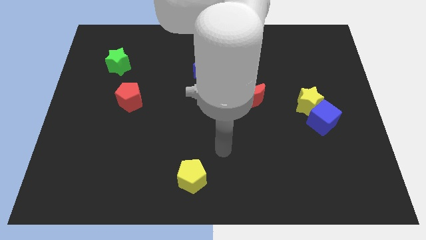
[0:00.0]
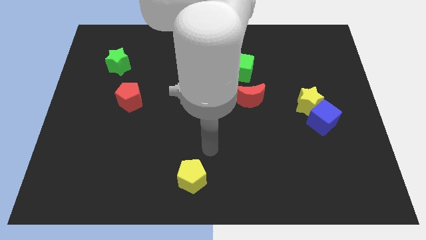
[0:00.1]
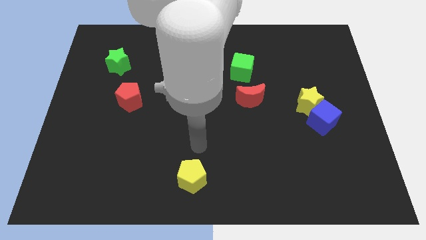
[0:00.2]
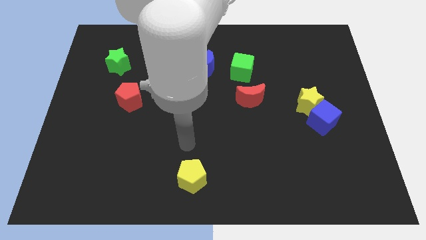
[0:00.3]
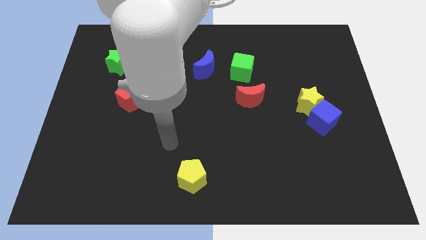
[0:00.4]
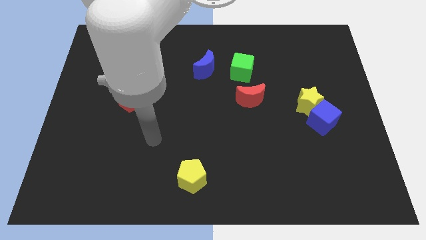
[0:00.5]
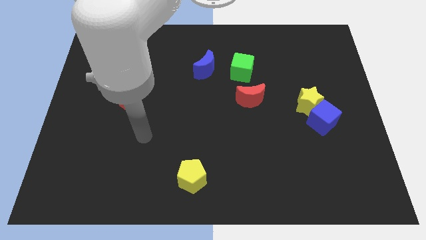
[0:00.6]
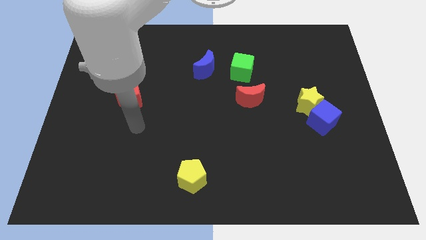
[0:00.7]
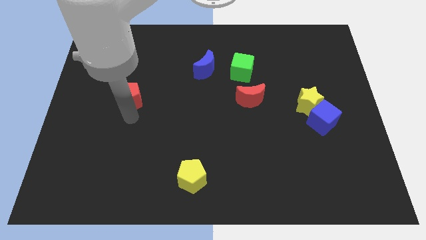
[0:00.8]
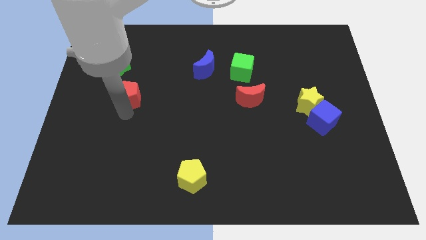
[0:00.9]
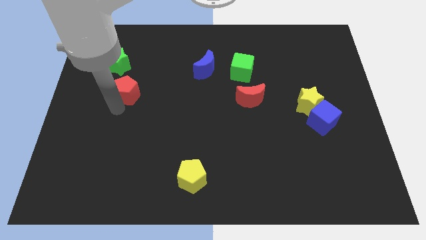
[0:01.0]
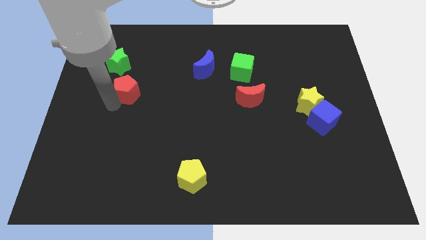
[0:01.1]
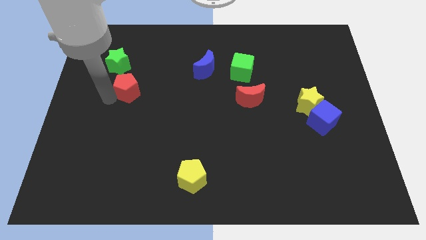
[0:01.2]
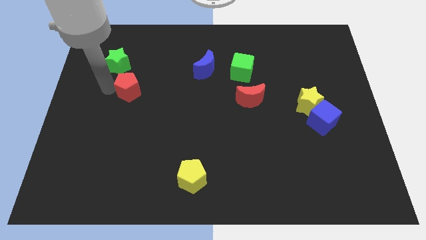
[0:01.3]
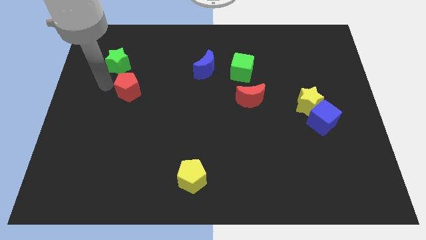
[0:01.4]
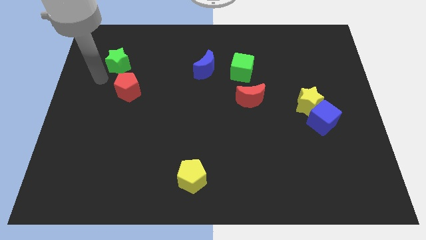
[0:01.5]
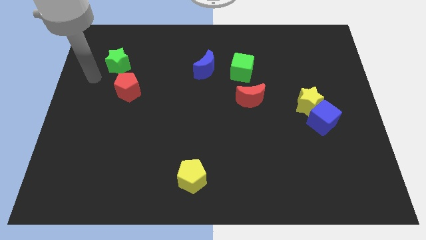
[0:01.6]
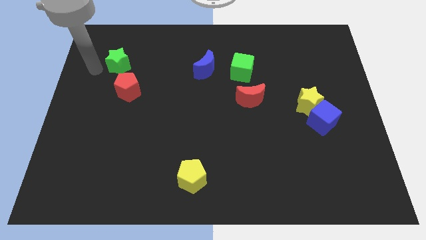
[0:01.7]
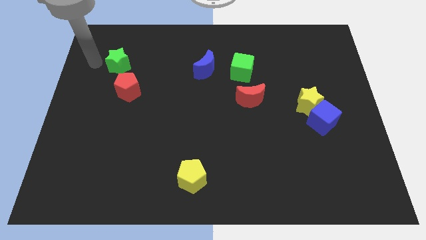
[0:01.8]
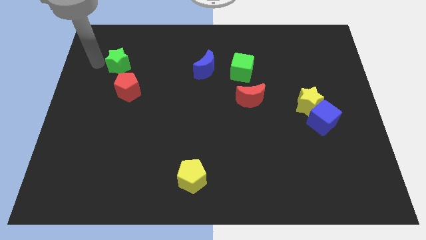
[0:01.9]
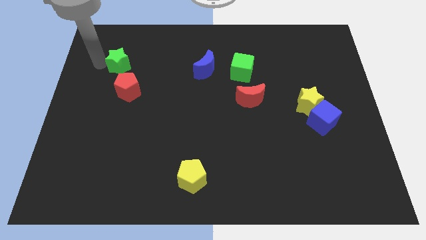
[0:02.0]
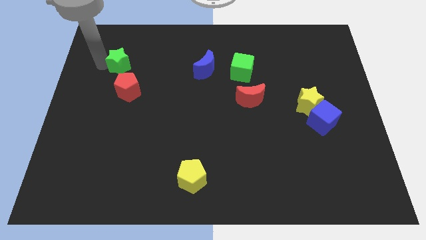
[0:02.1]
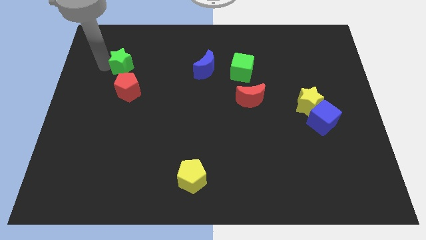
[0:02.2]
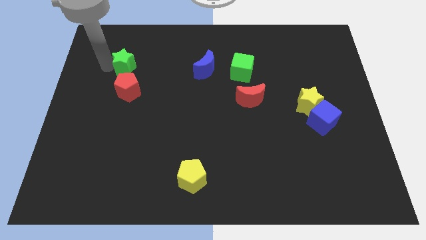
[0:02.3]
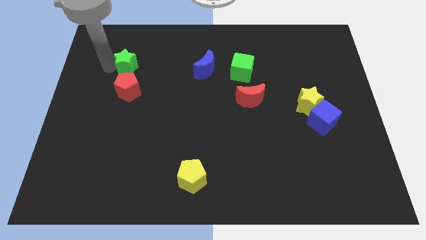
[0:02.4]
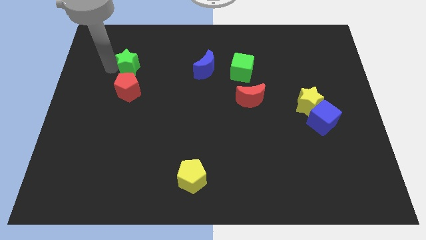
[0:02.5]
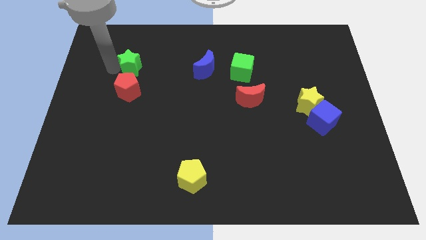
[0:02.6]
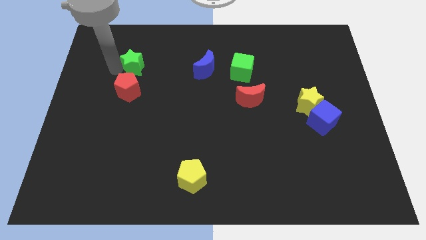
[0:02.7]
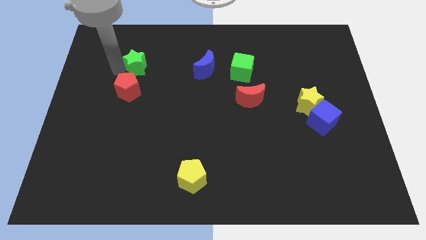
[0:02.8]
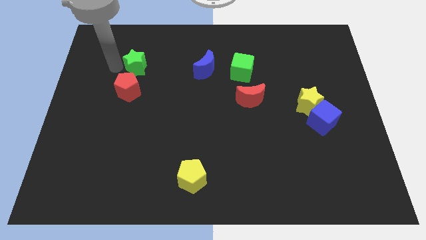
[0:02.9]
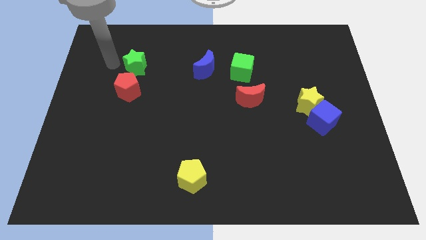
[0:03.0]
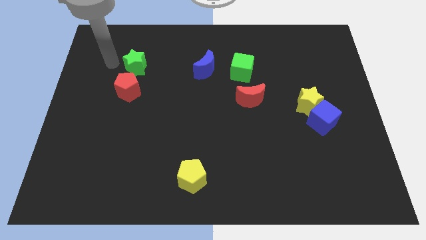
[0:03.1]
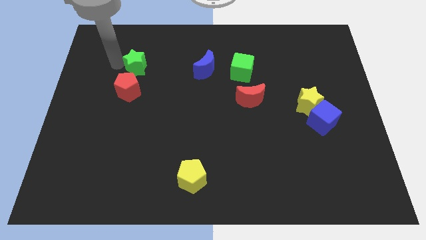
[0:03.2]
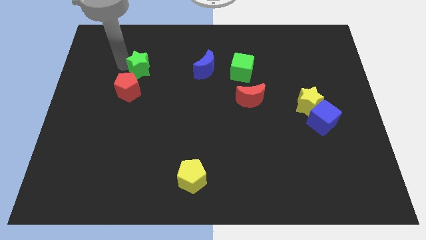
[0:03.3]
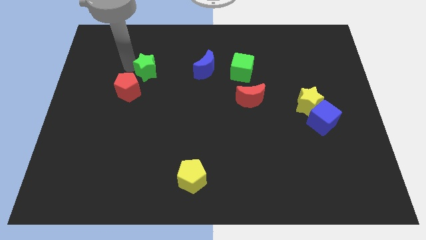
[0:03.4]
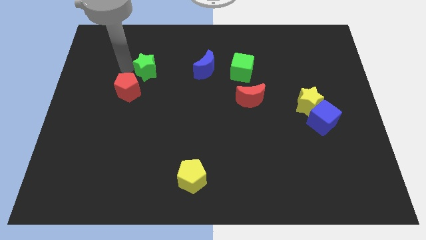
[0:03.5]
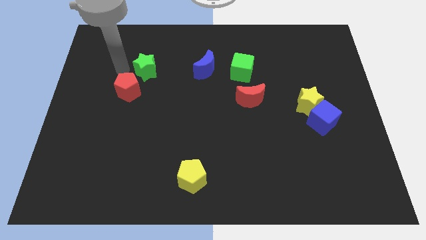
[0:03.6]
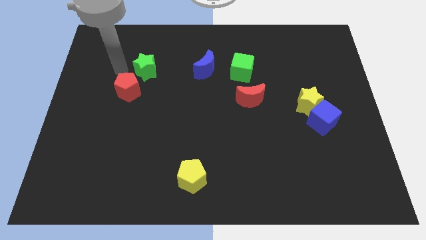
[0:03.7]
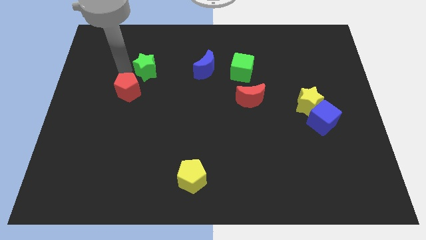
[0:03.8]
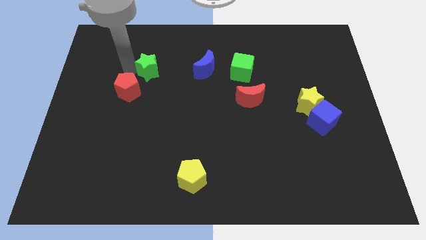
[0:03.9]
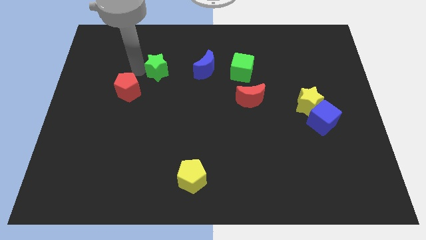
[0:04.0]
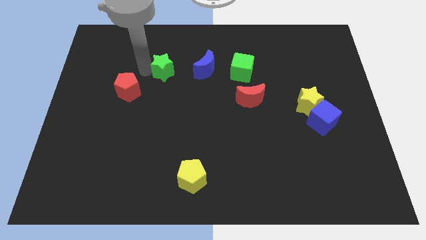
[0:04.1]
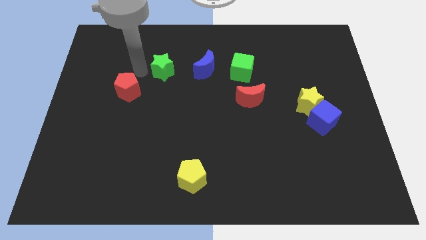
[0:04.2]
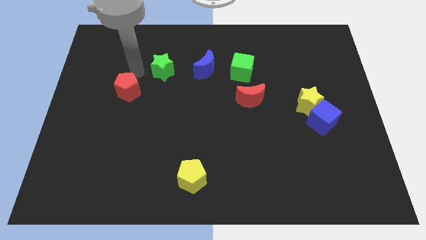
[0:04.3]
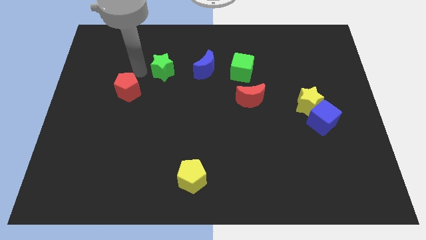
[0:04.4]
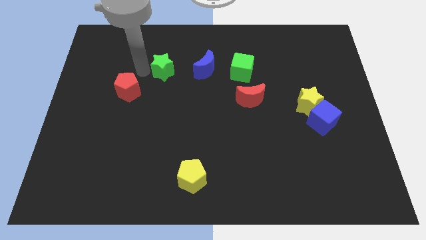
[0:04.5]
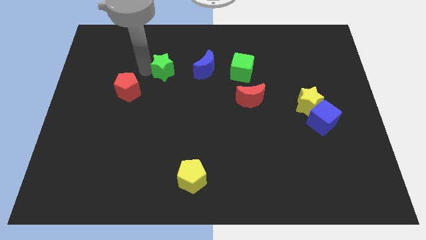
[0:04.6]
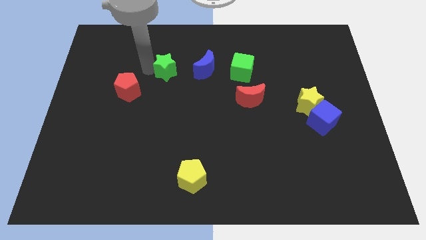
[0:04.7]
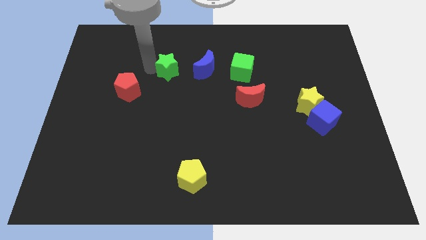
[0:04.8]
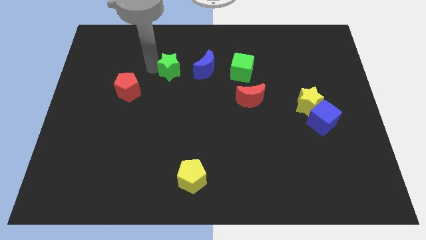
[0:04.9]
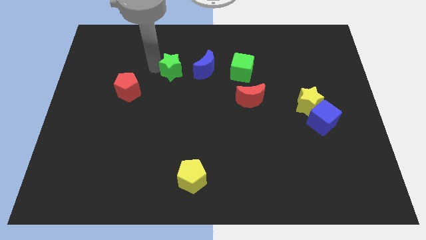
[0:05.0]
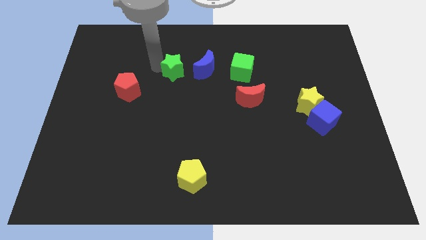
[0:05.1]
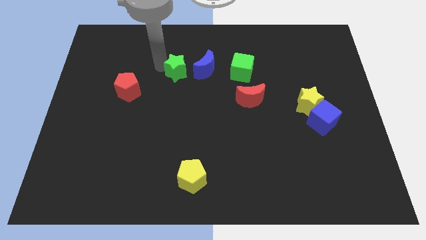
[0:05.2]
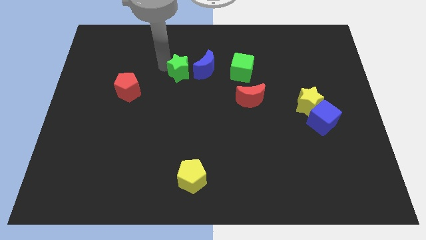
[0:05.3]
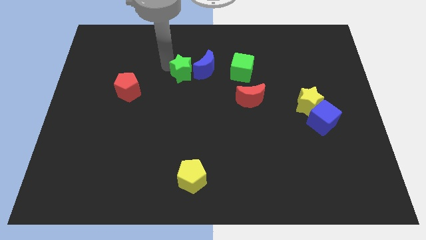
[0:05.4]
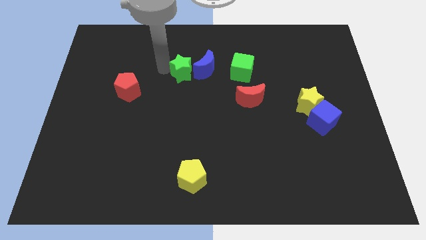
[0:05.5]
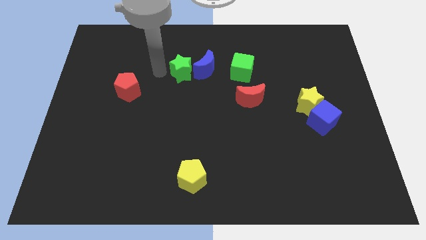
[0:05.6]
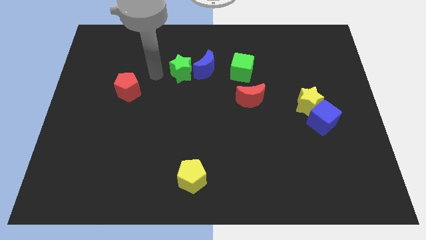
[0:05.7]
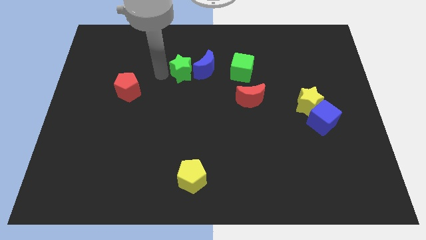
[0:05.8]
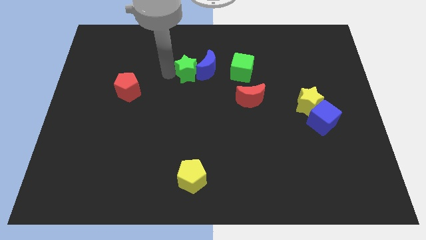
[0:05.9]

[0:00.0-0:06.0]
put the green star next to the blue moon

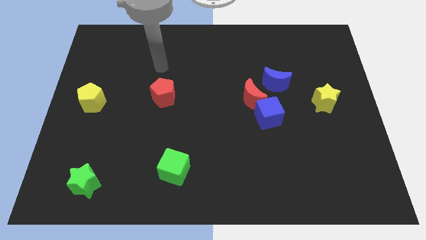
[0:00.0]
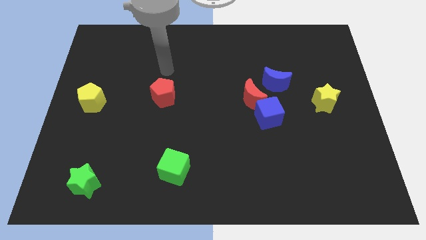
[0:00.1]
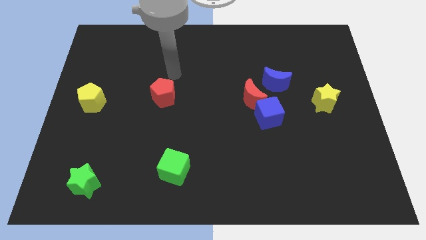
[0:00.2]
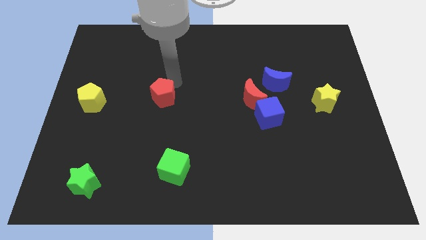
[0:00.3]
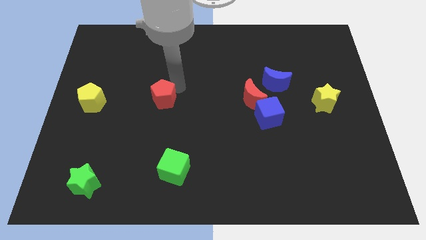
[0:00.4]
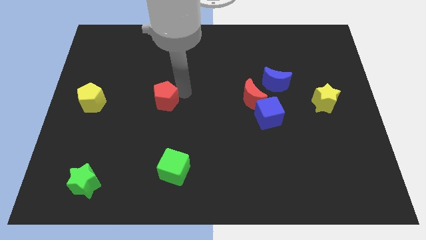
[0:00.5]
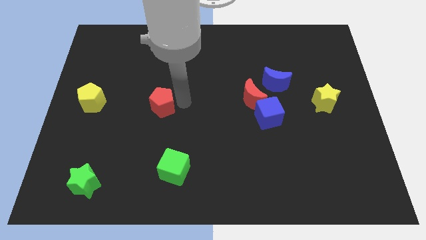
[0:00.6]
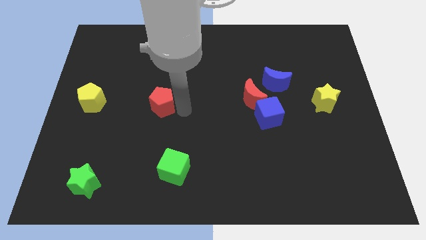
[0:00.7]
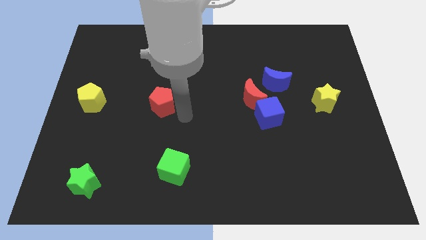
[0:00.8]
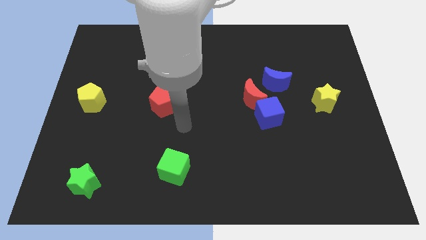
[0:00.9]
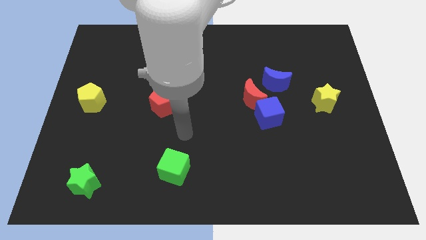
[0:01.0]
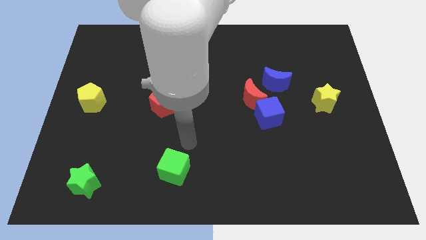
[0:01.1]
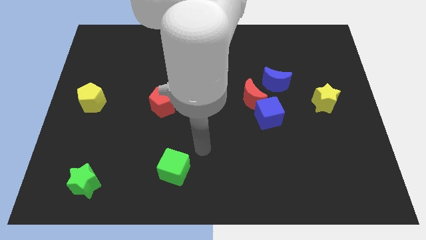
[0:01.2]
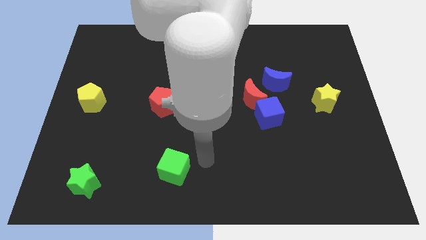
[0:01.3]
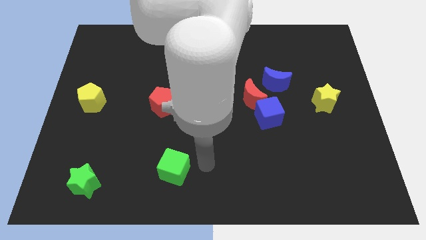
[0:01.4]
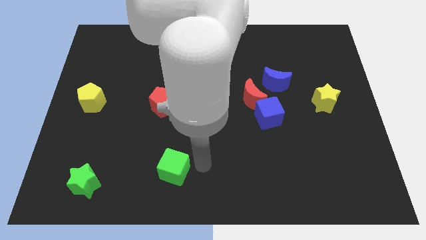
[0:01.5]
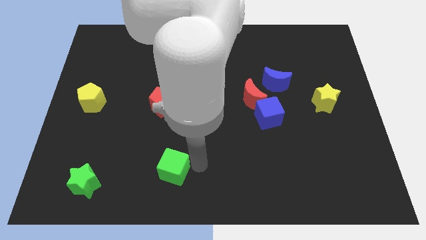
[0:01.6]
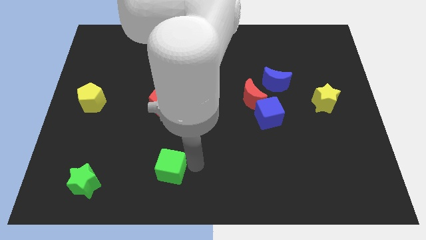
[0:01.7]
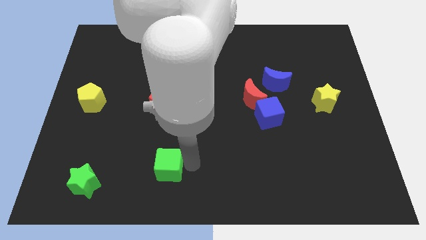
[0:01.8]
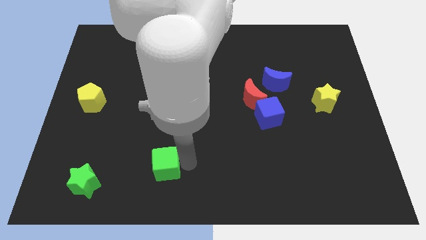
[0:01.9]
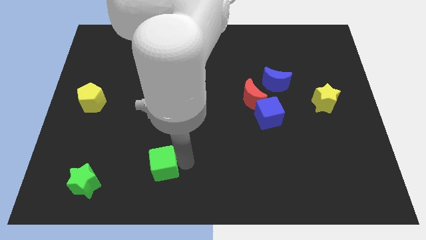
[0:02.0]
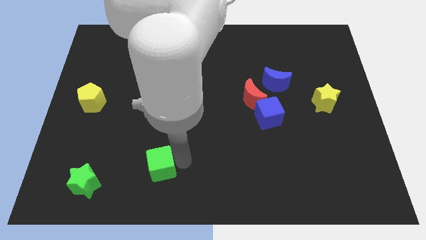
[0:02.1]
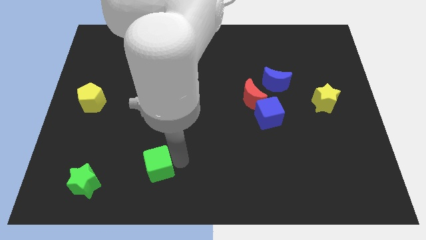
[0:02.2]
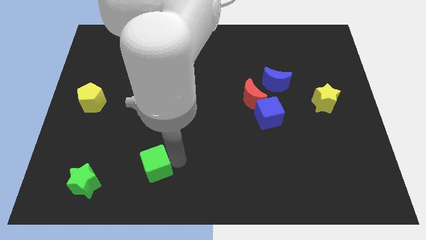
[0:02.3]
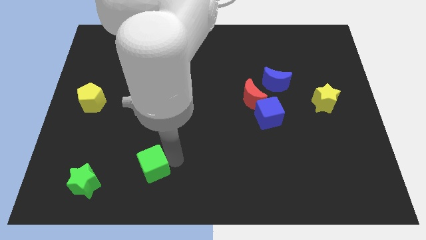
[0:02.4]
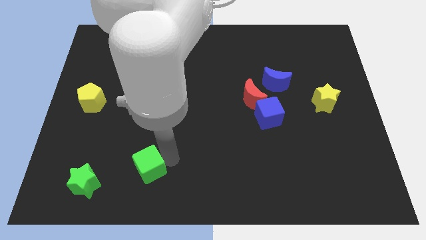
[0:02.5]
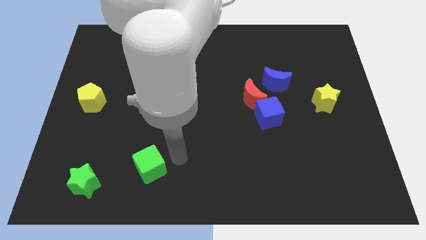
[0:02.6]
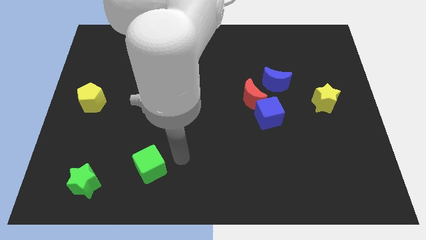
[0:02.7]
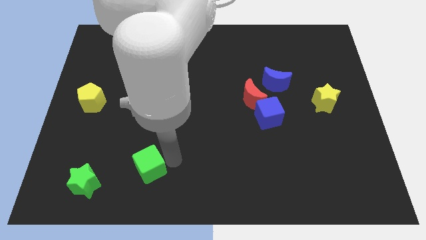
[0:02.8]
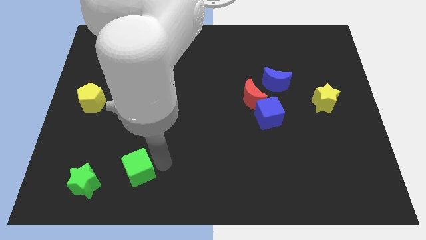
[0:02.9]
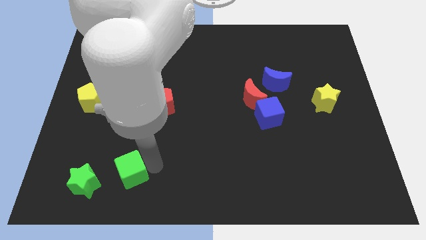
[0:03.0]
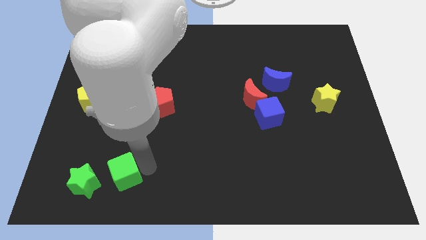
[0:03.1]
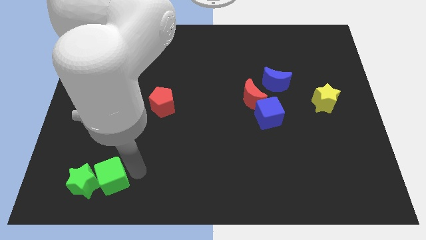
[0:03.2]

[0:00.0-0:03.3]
move the green cube towards the green star
